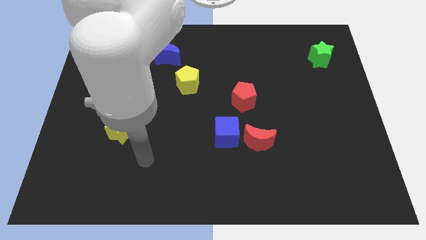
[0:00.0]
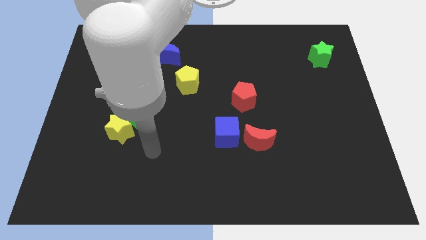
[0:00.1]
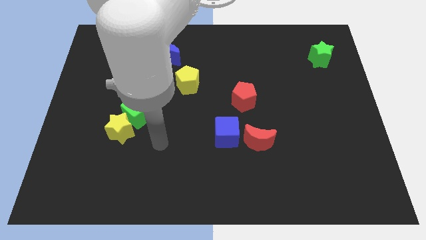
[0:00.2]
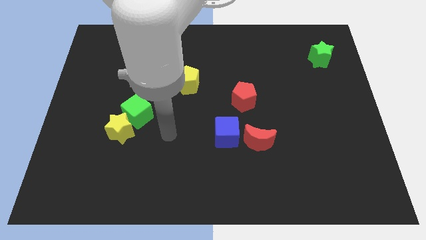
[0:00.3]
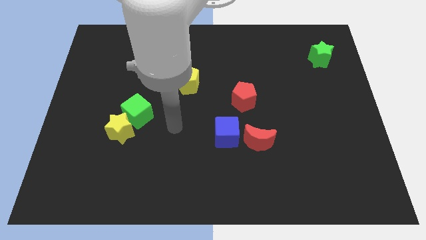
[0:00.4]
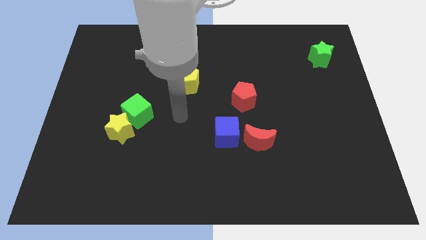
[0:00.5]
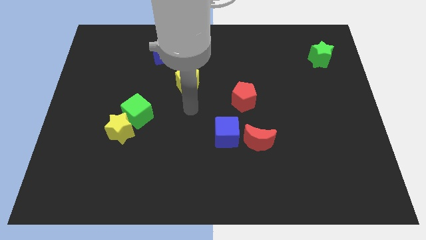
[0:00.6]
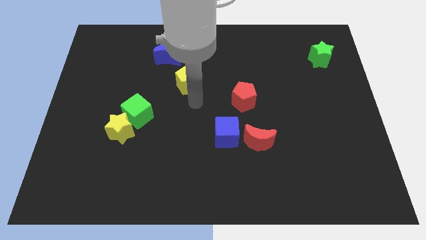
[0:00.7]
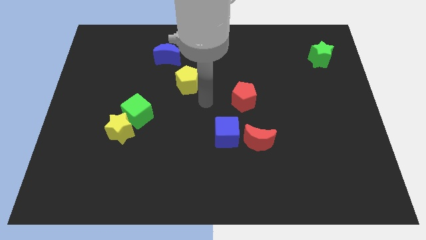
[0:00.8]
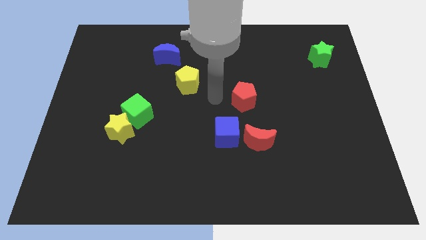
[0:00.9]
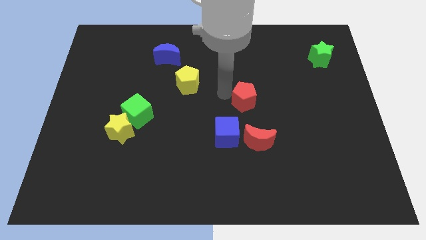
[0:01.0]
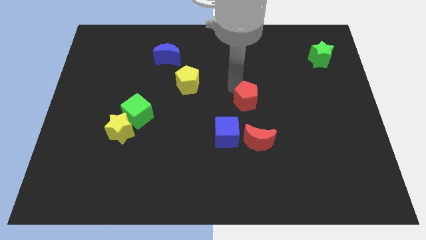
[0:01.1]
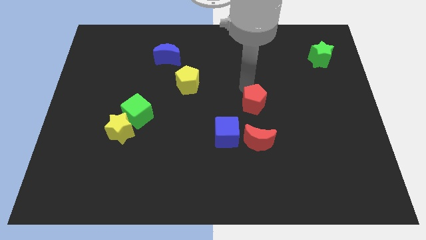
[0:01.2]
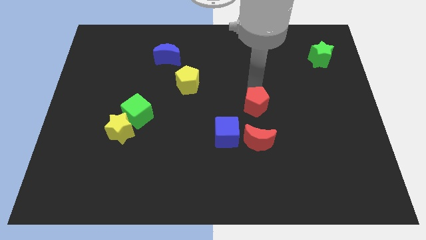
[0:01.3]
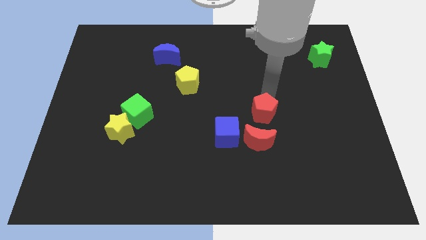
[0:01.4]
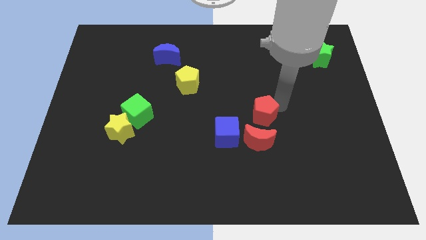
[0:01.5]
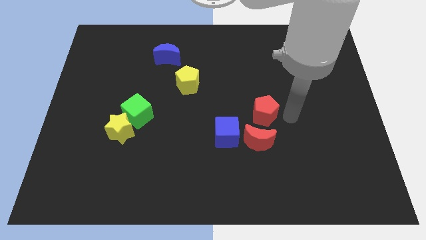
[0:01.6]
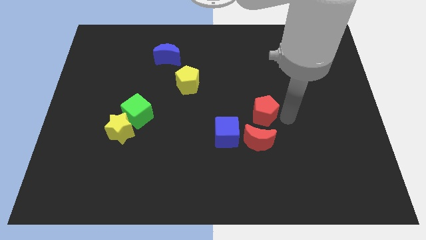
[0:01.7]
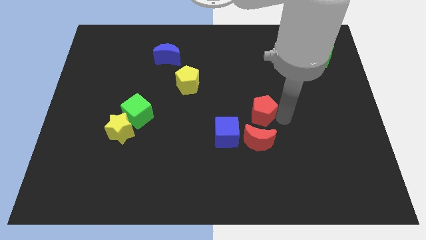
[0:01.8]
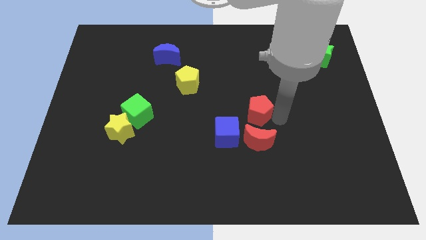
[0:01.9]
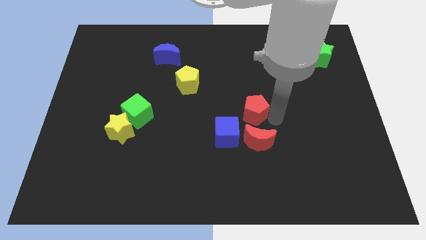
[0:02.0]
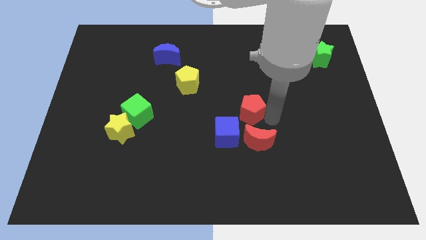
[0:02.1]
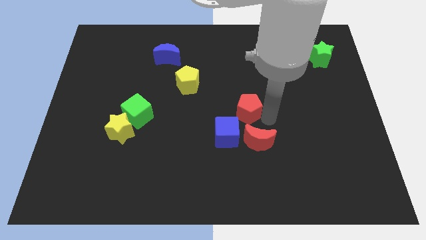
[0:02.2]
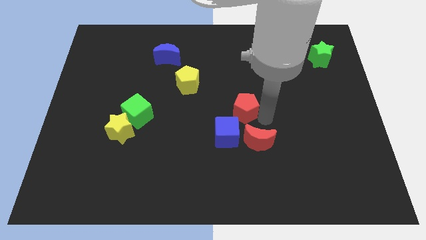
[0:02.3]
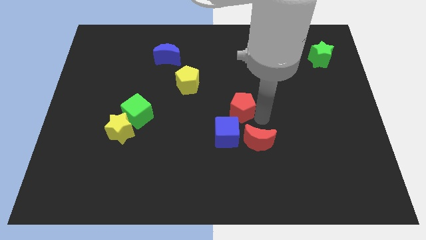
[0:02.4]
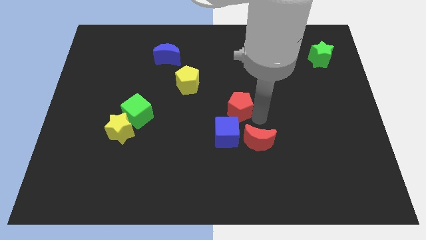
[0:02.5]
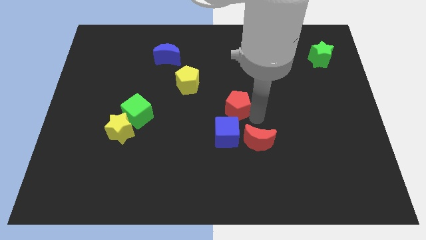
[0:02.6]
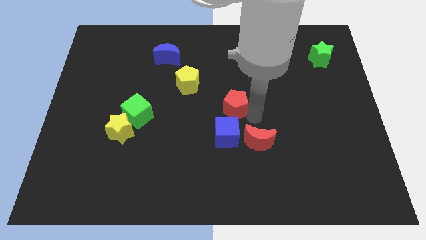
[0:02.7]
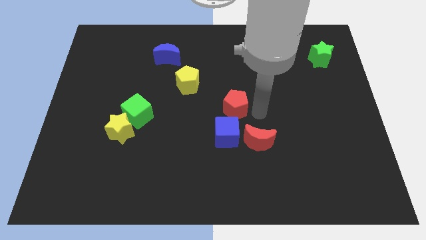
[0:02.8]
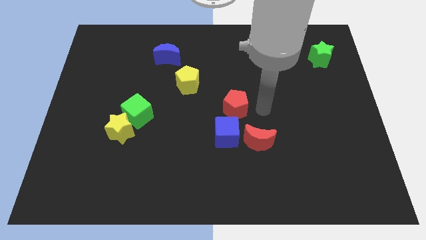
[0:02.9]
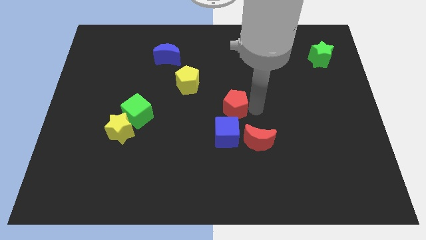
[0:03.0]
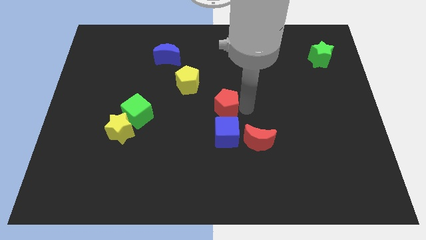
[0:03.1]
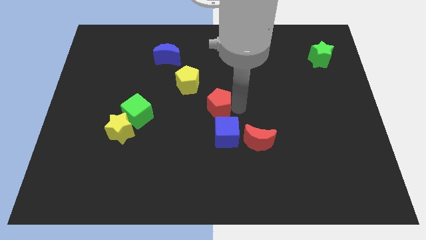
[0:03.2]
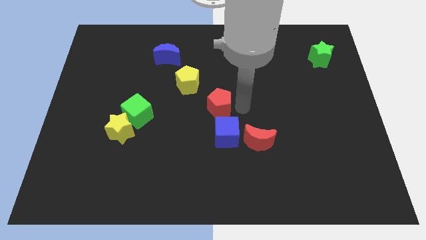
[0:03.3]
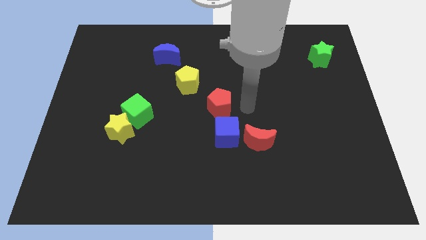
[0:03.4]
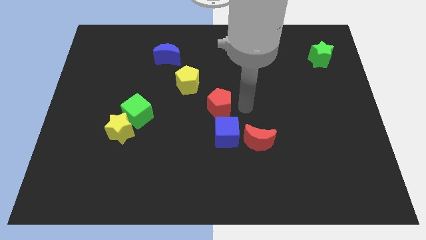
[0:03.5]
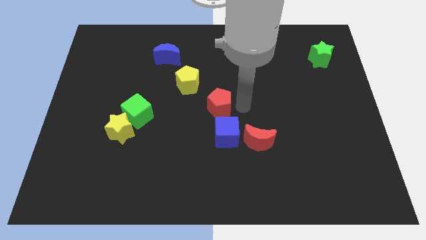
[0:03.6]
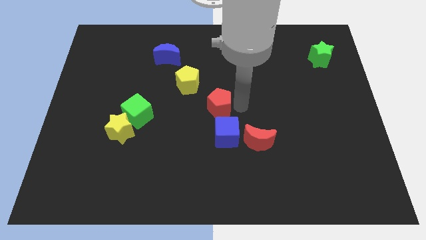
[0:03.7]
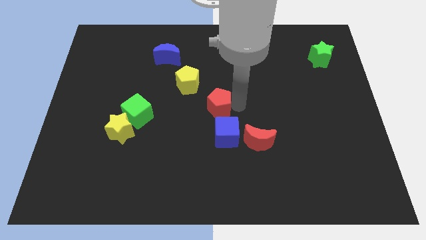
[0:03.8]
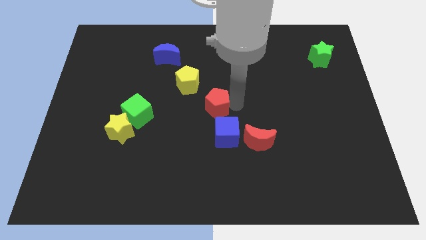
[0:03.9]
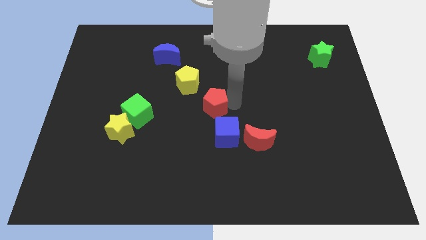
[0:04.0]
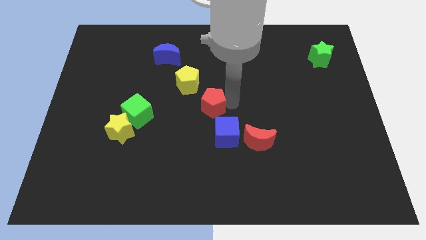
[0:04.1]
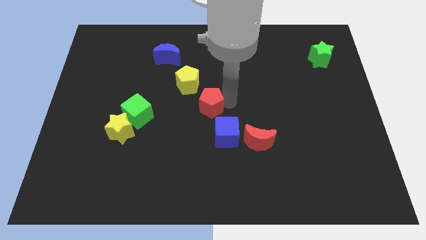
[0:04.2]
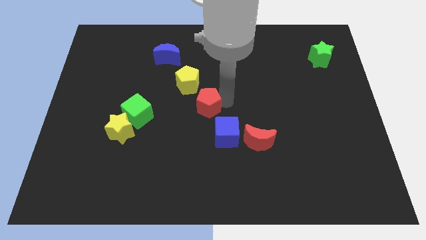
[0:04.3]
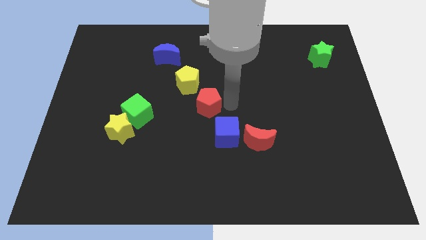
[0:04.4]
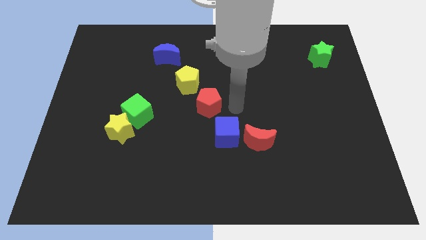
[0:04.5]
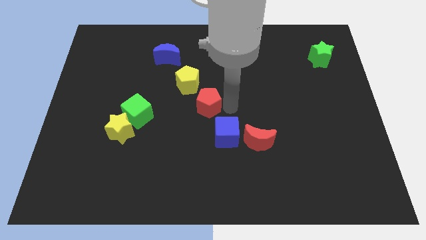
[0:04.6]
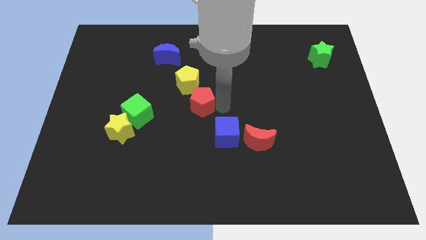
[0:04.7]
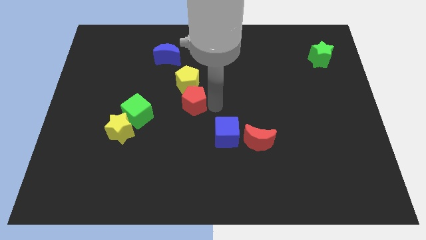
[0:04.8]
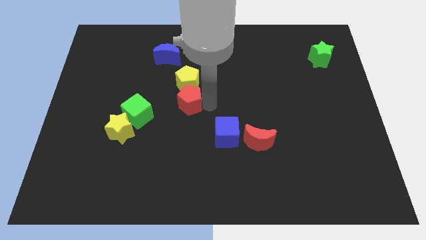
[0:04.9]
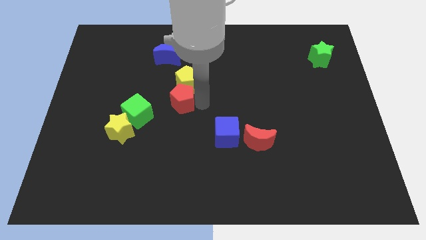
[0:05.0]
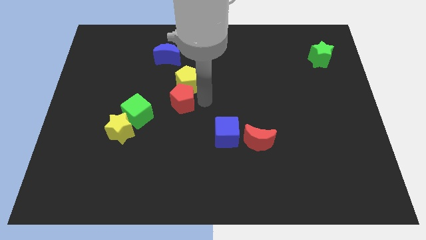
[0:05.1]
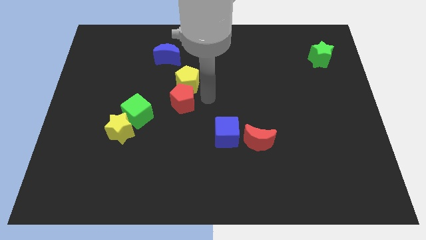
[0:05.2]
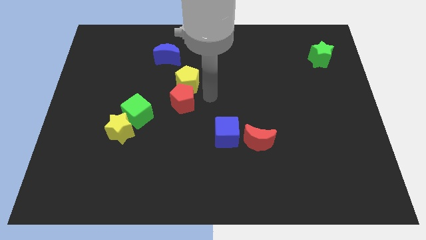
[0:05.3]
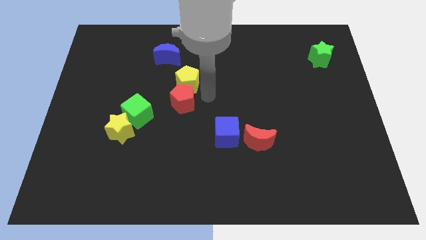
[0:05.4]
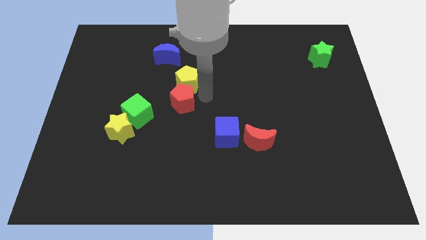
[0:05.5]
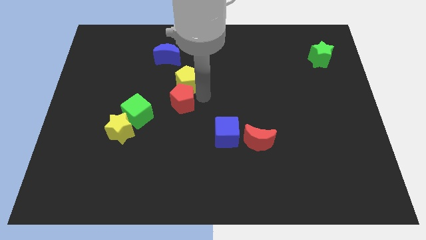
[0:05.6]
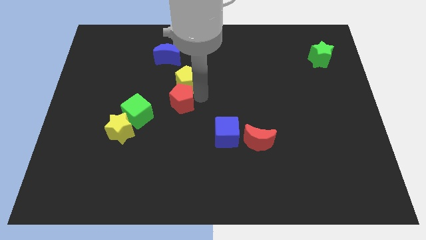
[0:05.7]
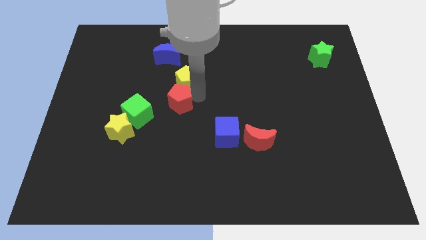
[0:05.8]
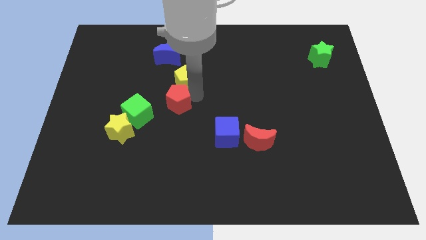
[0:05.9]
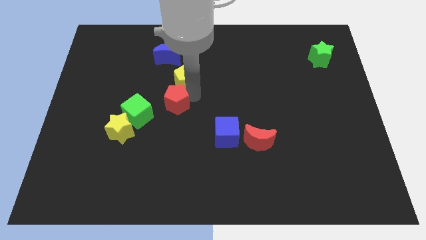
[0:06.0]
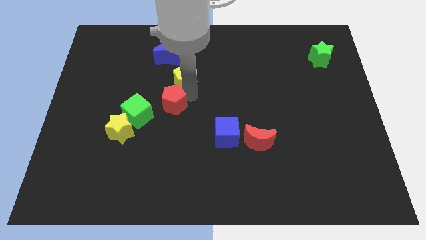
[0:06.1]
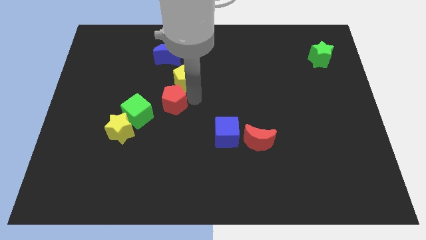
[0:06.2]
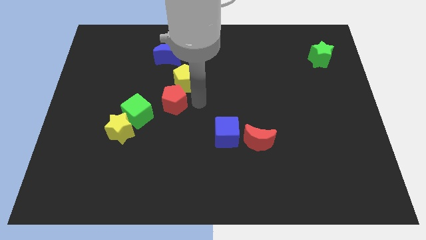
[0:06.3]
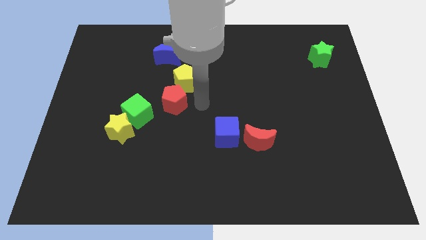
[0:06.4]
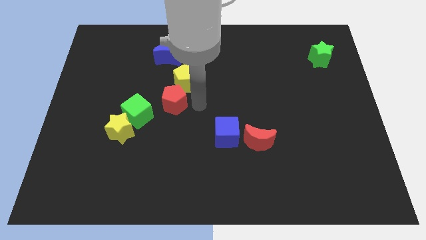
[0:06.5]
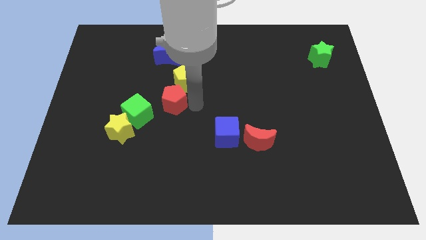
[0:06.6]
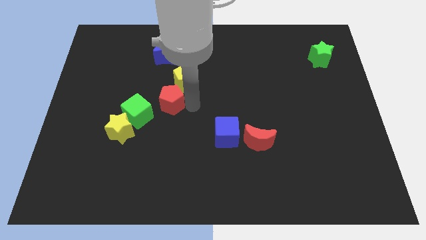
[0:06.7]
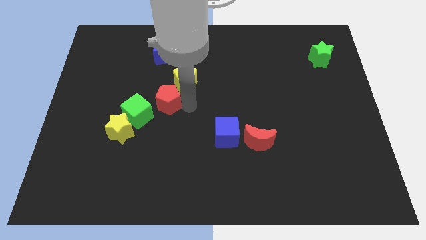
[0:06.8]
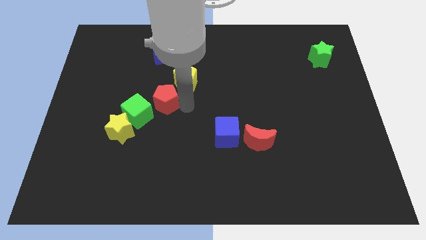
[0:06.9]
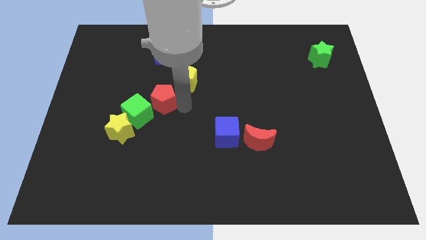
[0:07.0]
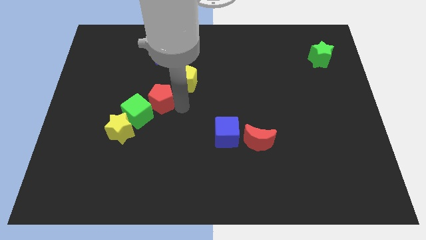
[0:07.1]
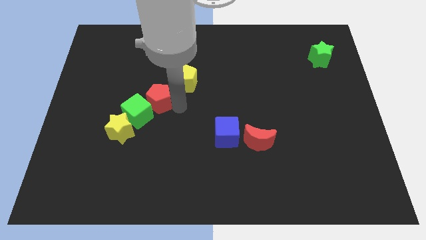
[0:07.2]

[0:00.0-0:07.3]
move the red pentagon to the left

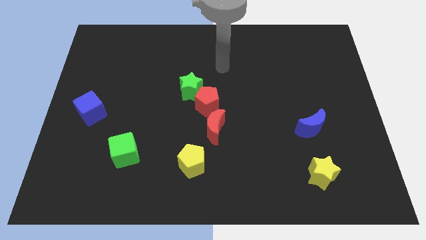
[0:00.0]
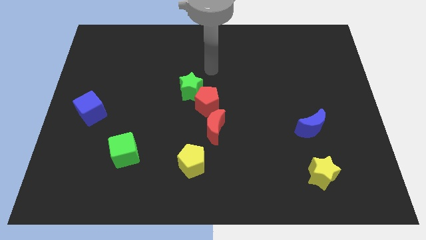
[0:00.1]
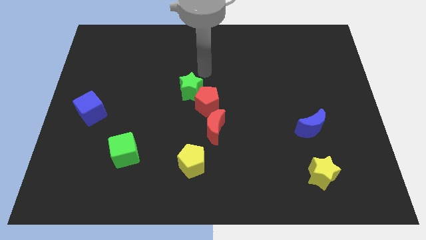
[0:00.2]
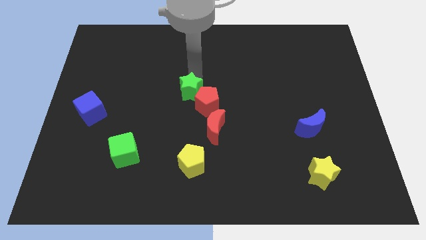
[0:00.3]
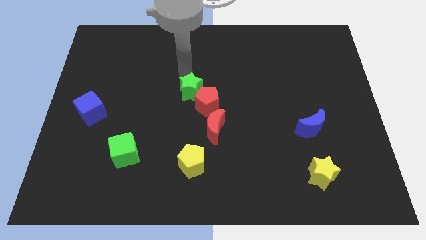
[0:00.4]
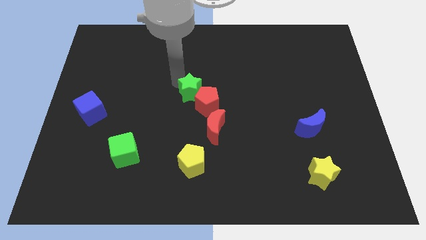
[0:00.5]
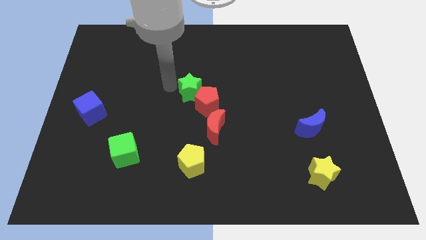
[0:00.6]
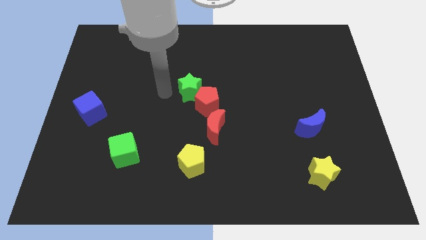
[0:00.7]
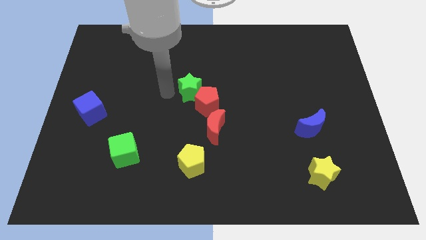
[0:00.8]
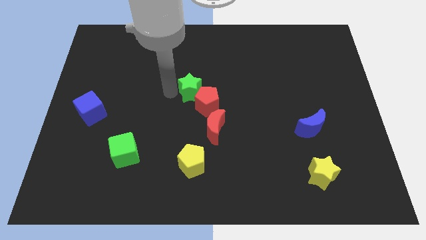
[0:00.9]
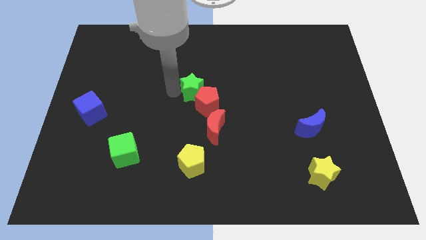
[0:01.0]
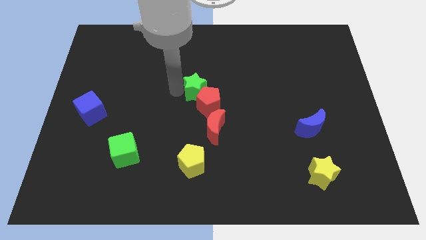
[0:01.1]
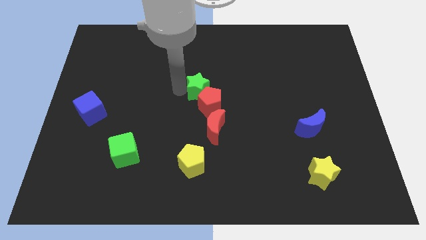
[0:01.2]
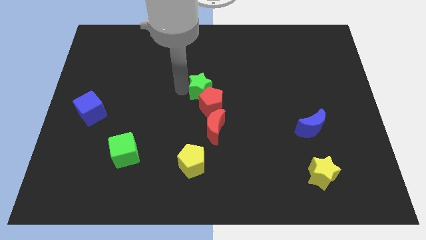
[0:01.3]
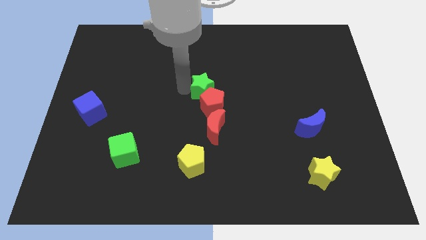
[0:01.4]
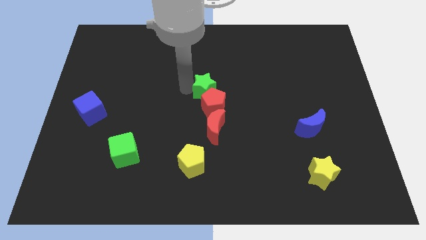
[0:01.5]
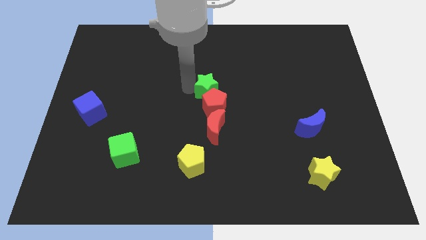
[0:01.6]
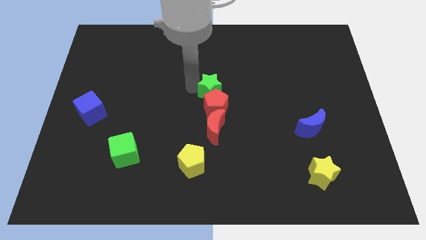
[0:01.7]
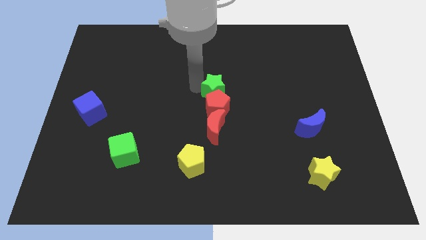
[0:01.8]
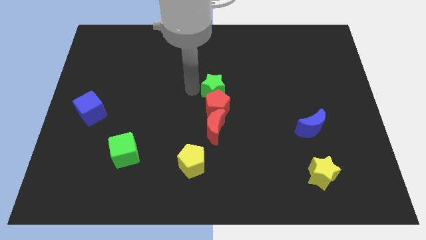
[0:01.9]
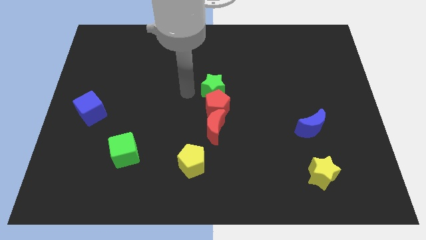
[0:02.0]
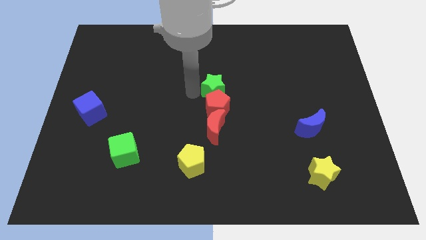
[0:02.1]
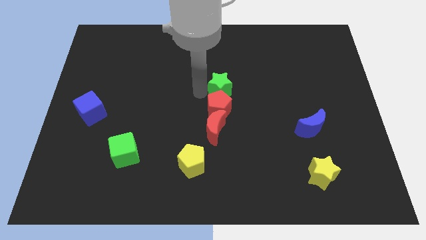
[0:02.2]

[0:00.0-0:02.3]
push the green star a bit right
